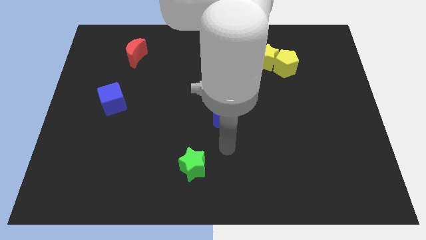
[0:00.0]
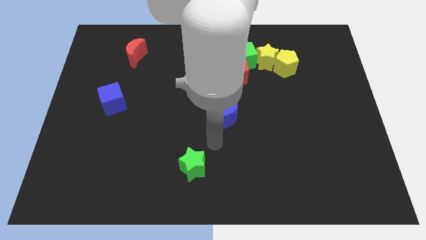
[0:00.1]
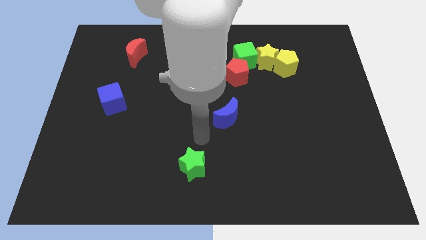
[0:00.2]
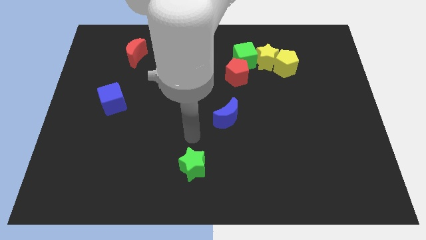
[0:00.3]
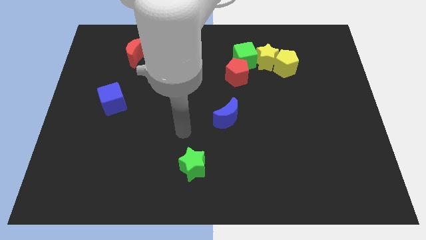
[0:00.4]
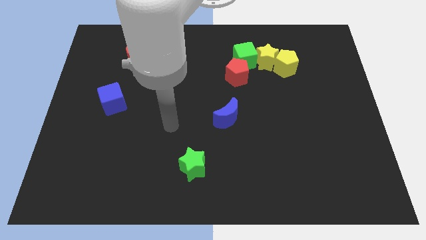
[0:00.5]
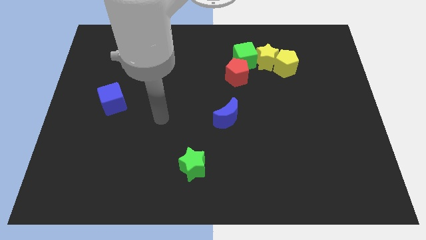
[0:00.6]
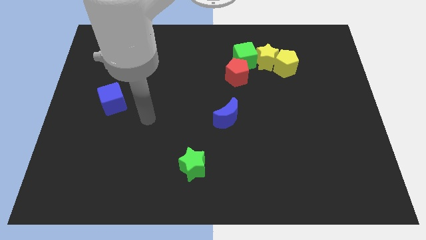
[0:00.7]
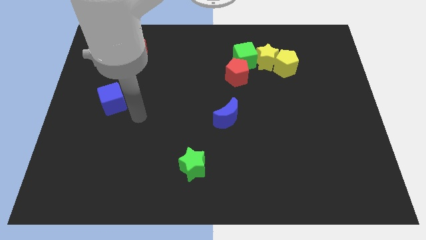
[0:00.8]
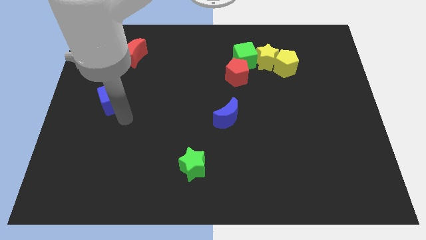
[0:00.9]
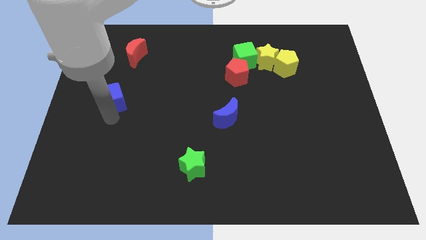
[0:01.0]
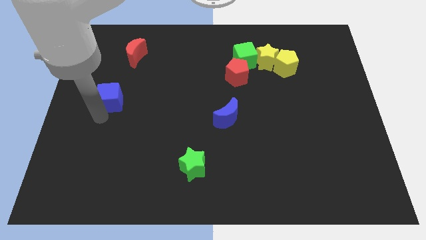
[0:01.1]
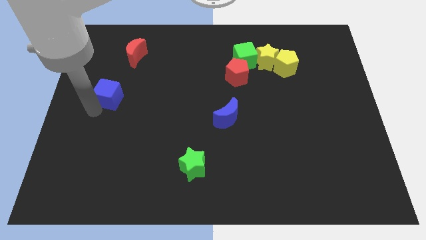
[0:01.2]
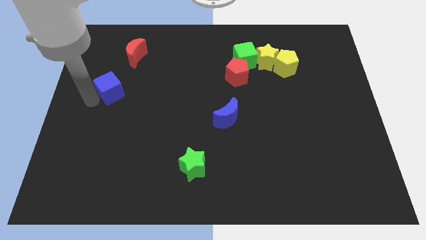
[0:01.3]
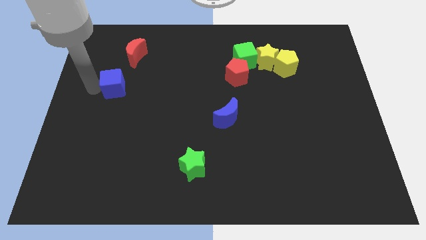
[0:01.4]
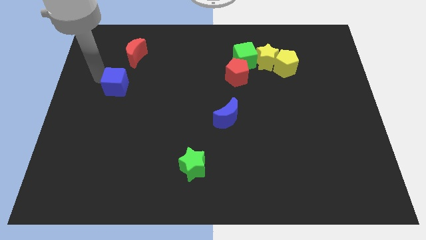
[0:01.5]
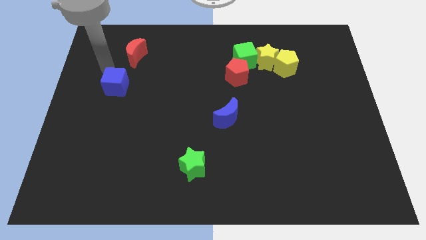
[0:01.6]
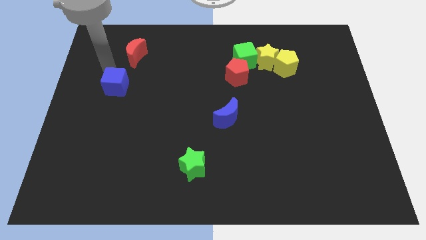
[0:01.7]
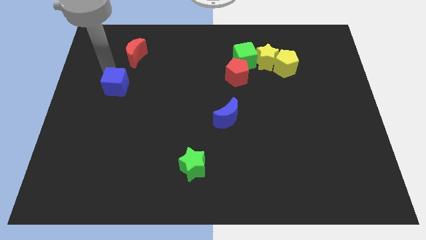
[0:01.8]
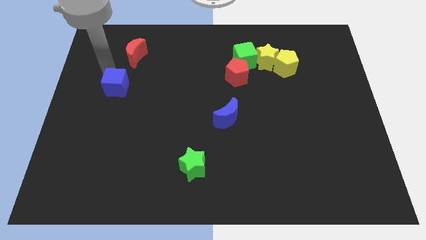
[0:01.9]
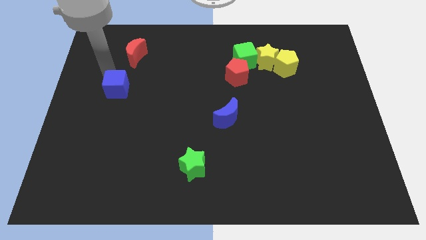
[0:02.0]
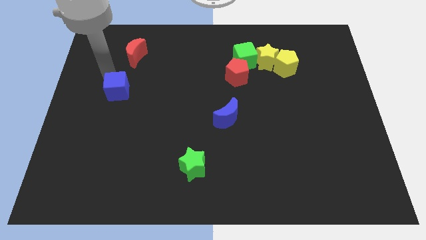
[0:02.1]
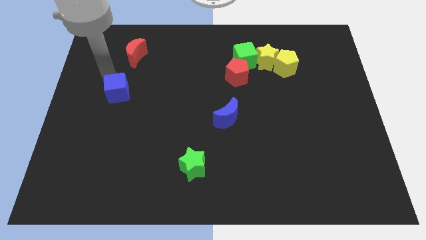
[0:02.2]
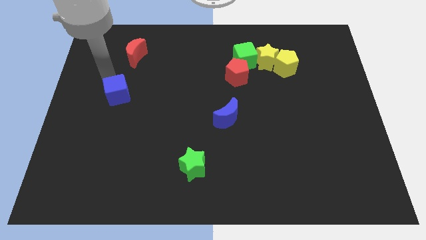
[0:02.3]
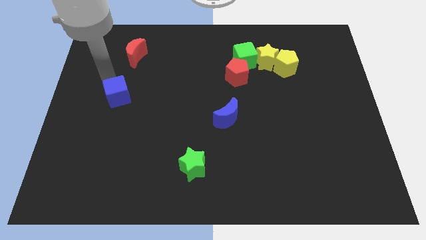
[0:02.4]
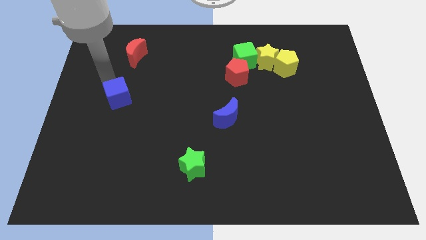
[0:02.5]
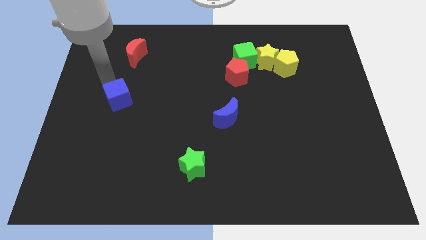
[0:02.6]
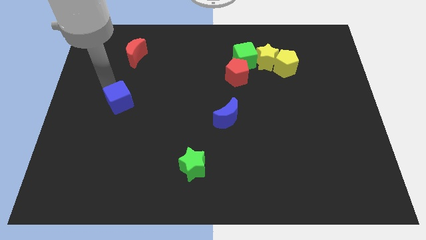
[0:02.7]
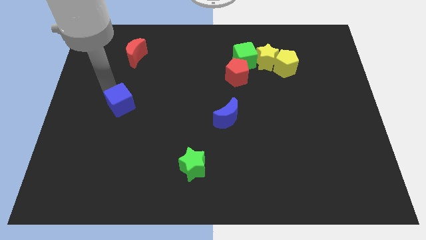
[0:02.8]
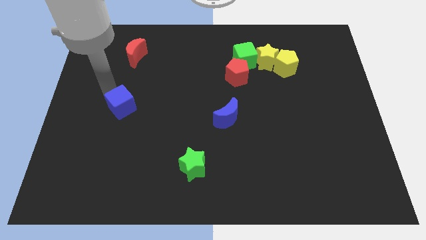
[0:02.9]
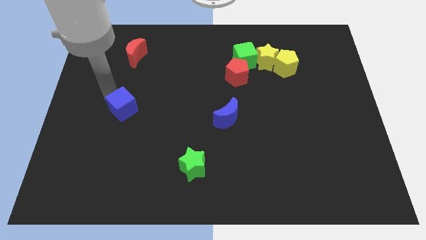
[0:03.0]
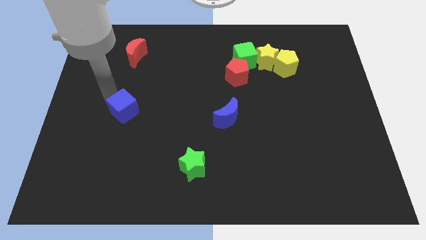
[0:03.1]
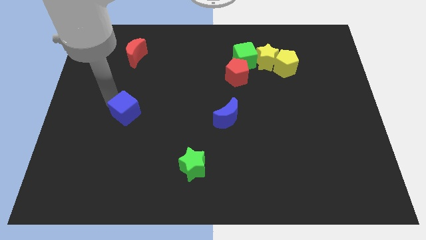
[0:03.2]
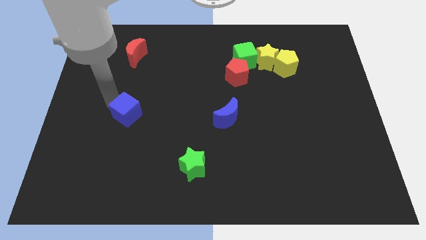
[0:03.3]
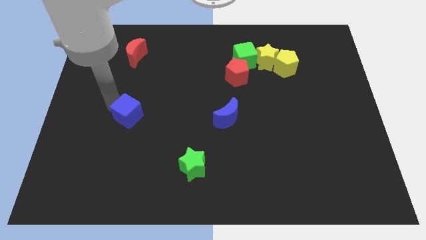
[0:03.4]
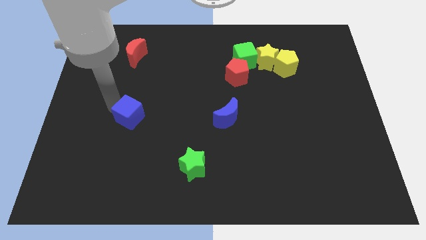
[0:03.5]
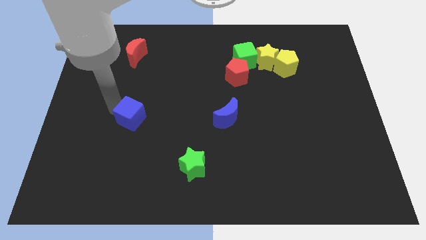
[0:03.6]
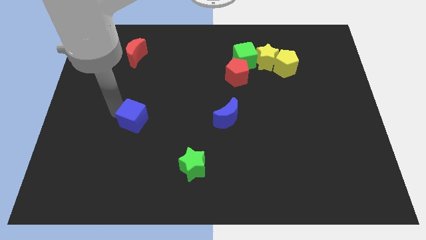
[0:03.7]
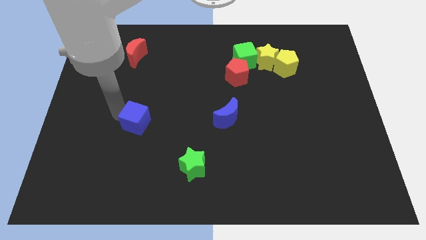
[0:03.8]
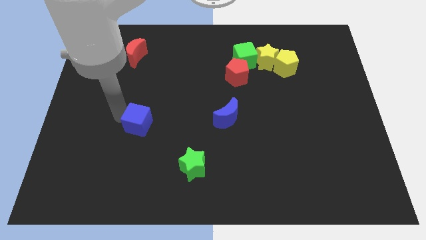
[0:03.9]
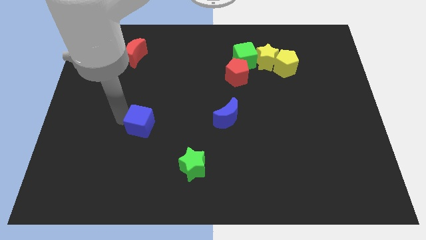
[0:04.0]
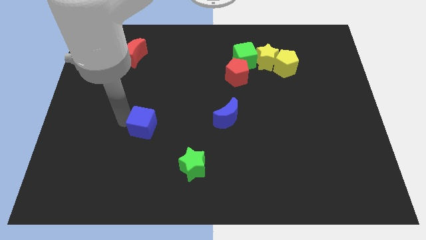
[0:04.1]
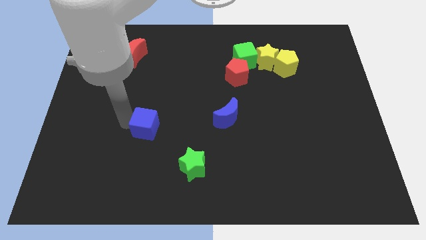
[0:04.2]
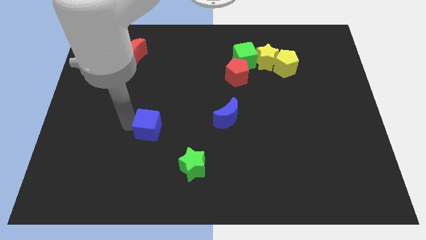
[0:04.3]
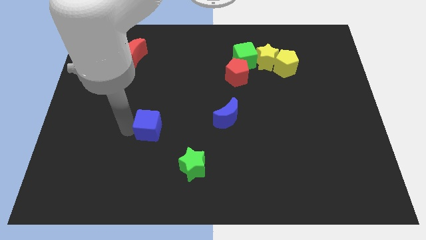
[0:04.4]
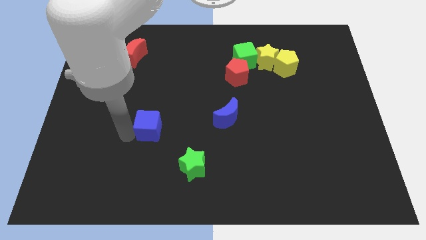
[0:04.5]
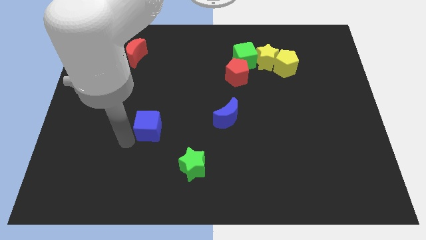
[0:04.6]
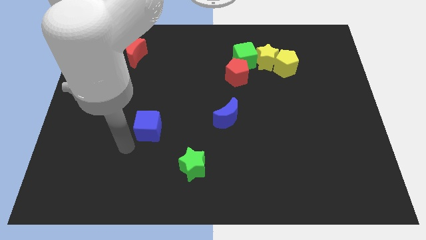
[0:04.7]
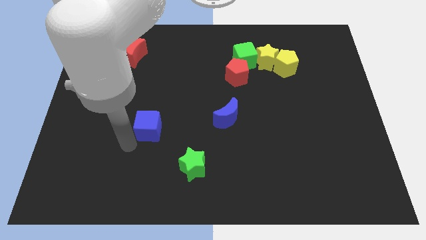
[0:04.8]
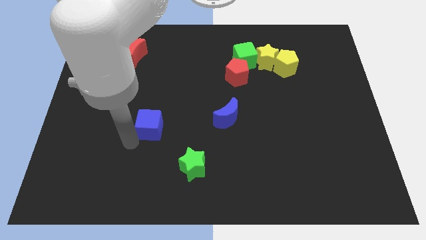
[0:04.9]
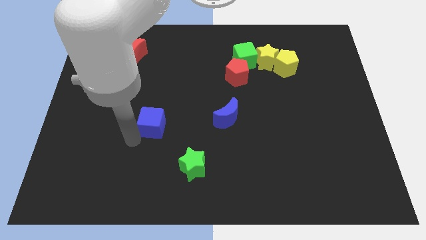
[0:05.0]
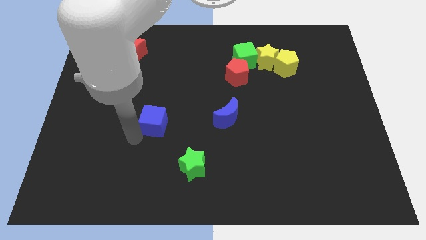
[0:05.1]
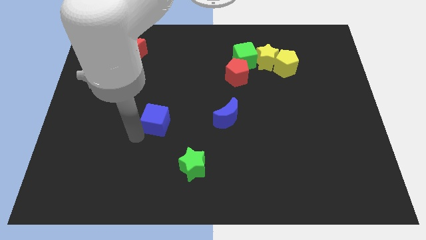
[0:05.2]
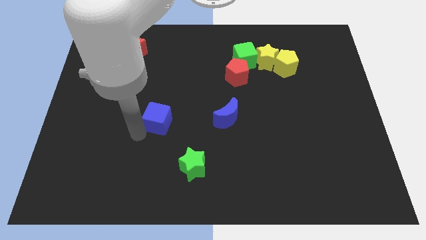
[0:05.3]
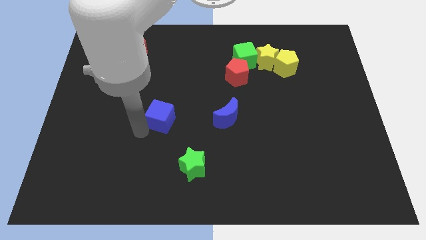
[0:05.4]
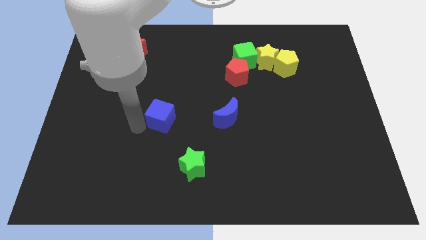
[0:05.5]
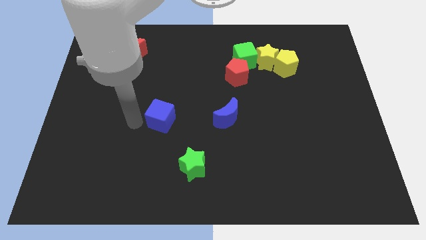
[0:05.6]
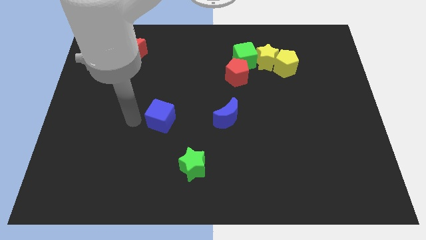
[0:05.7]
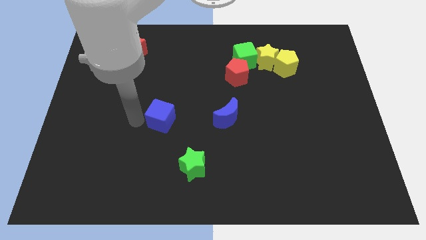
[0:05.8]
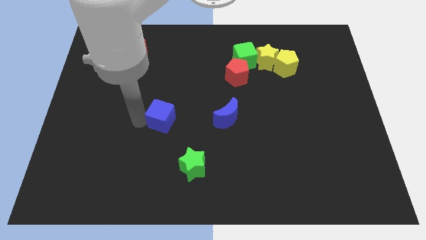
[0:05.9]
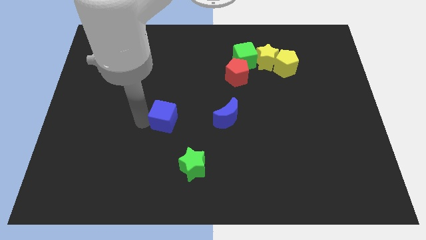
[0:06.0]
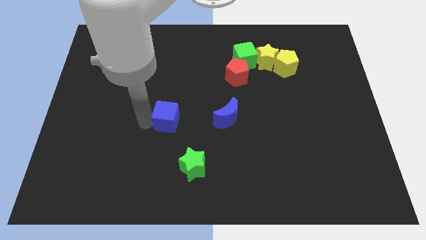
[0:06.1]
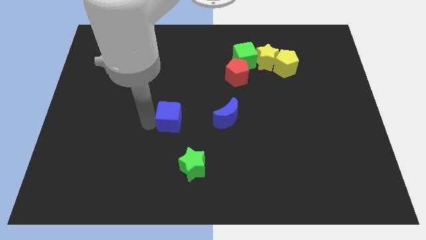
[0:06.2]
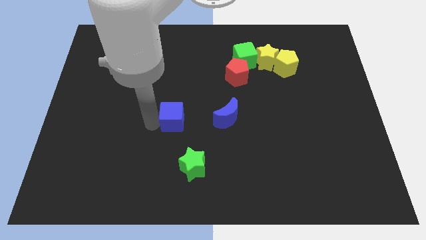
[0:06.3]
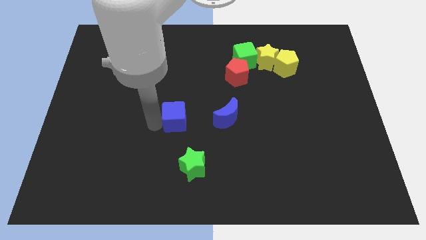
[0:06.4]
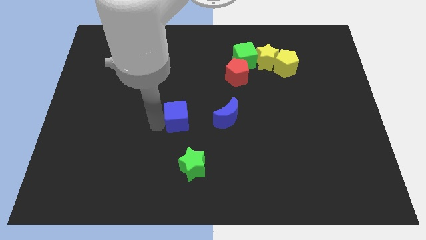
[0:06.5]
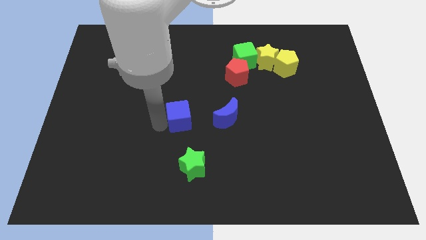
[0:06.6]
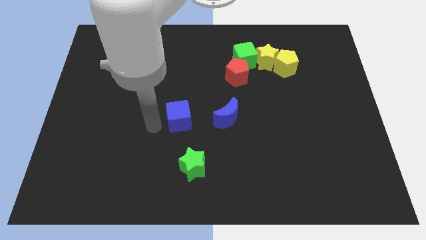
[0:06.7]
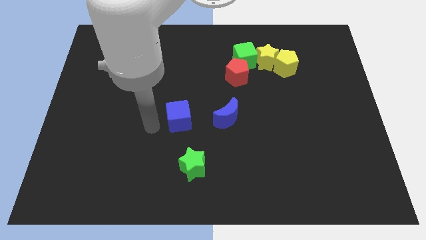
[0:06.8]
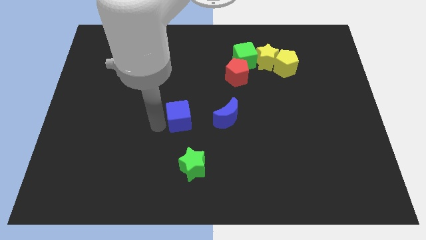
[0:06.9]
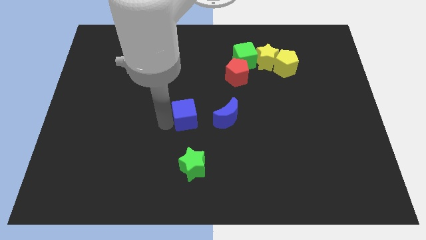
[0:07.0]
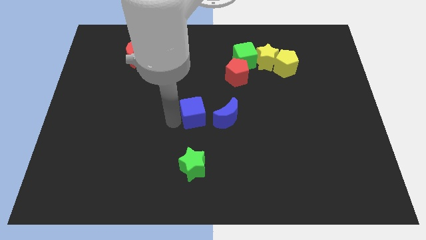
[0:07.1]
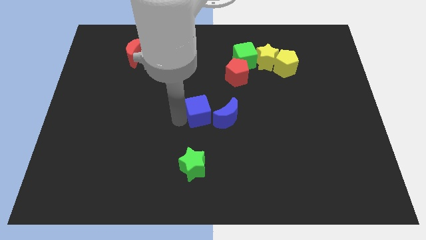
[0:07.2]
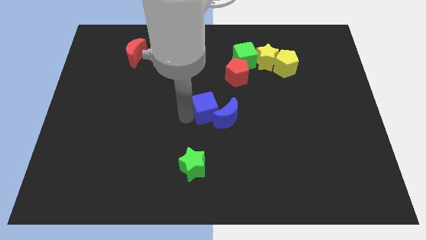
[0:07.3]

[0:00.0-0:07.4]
move the blue cube close to the blue moon
